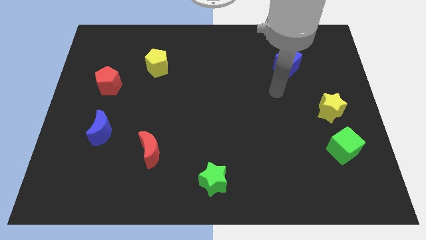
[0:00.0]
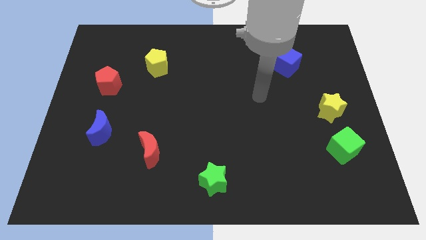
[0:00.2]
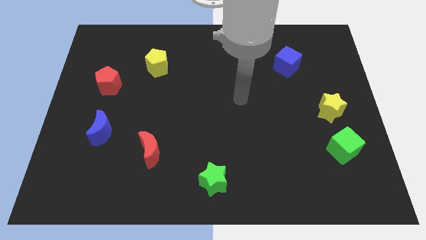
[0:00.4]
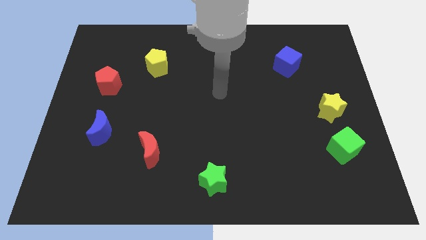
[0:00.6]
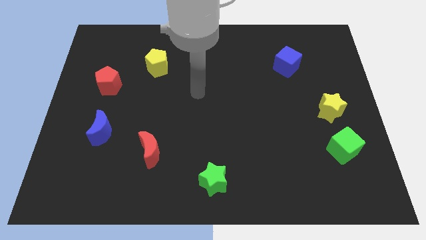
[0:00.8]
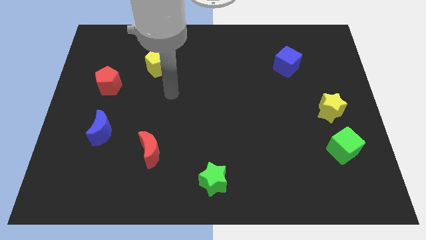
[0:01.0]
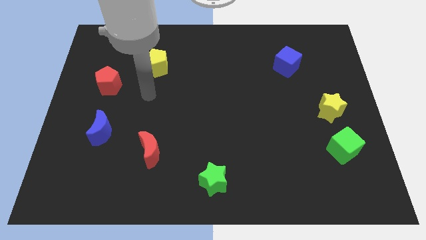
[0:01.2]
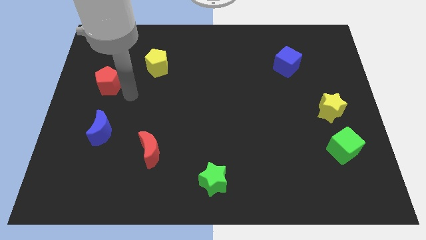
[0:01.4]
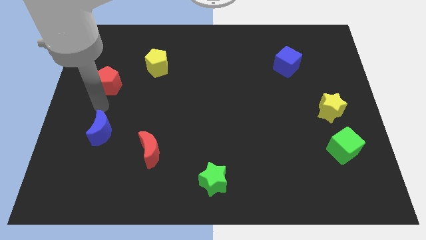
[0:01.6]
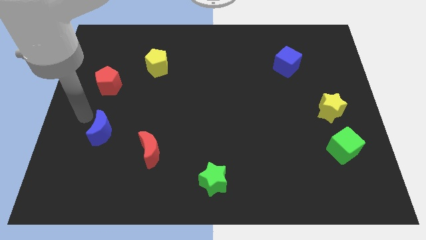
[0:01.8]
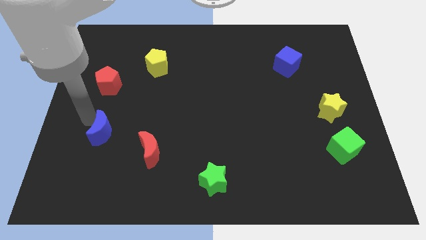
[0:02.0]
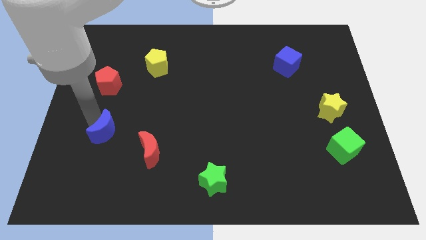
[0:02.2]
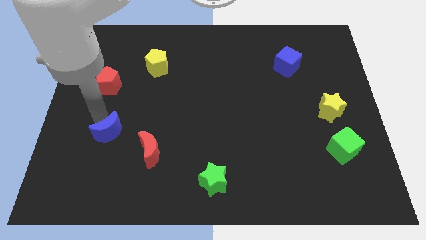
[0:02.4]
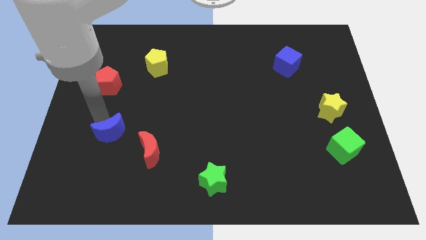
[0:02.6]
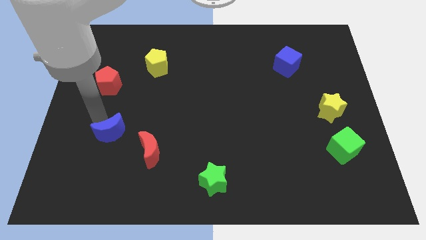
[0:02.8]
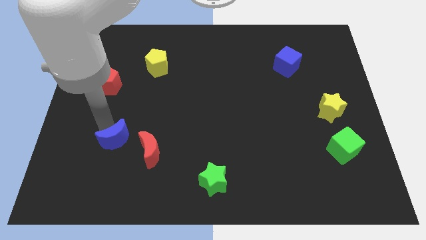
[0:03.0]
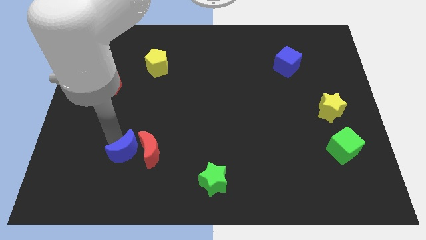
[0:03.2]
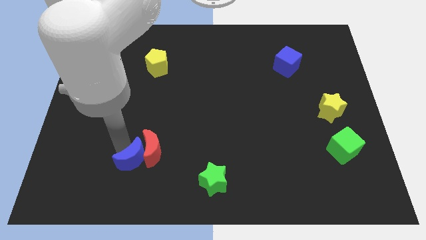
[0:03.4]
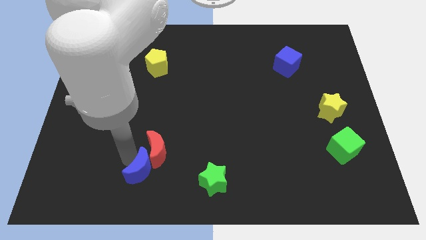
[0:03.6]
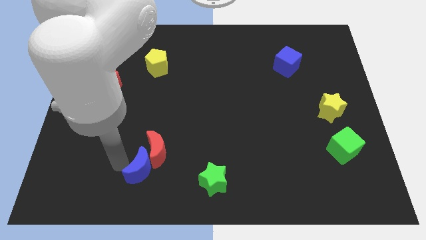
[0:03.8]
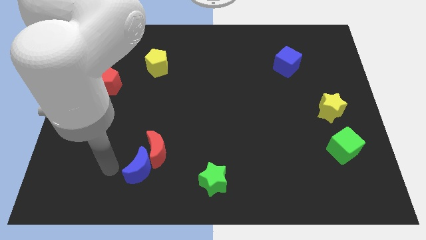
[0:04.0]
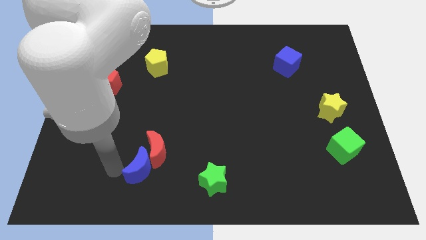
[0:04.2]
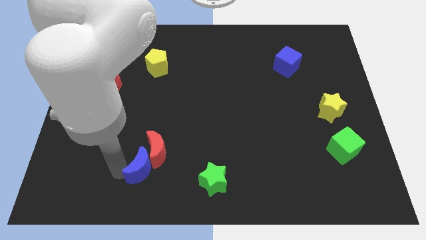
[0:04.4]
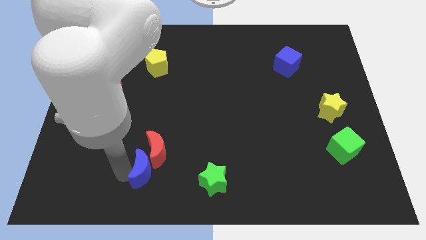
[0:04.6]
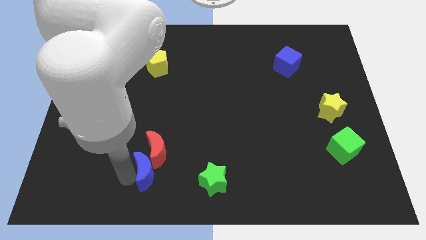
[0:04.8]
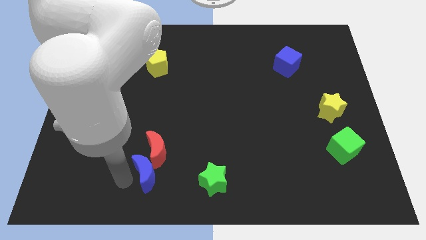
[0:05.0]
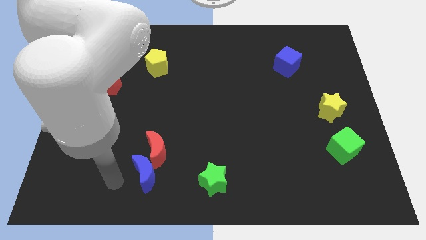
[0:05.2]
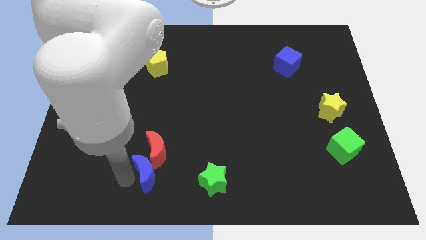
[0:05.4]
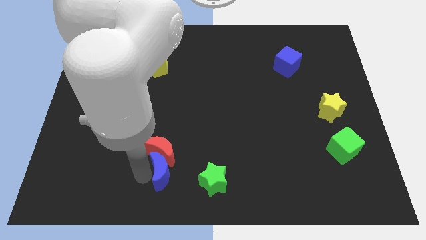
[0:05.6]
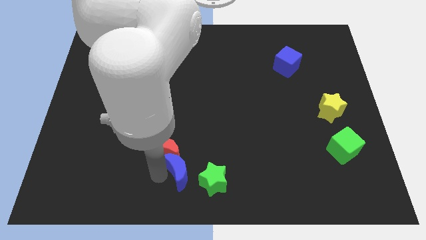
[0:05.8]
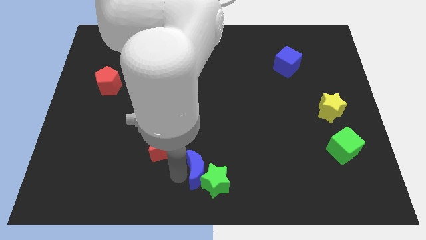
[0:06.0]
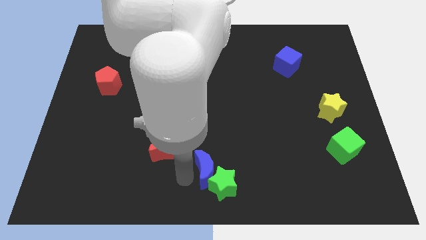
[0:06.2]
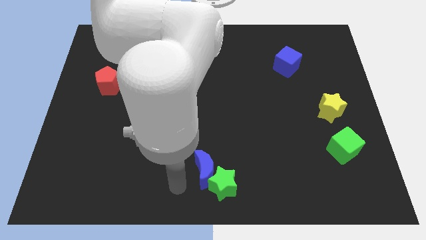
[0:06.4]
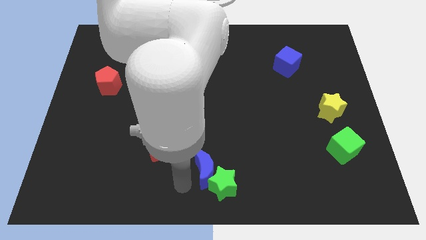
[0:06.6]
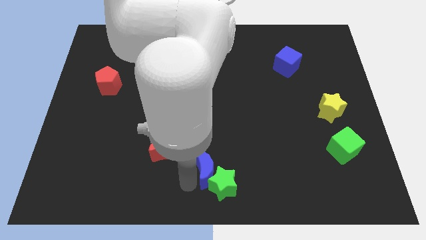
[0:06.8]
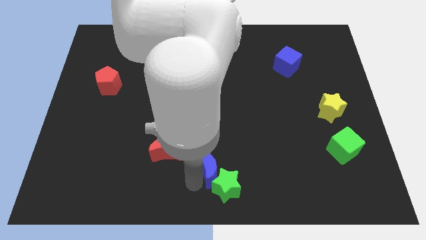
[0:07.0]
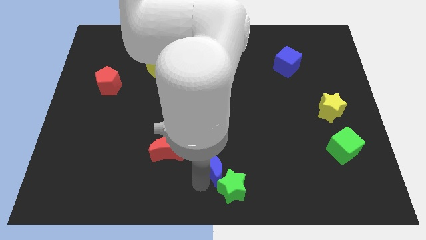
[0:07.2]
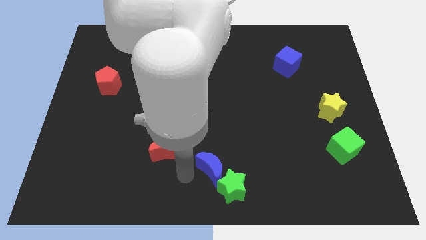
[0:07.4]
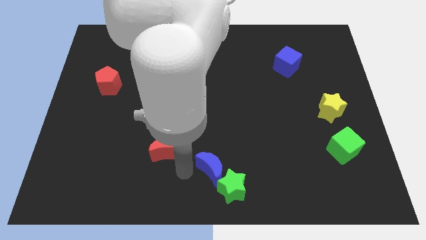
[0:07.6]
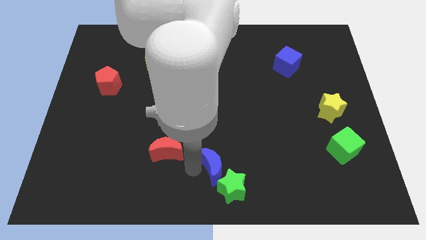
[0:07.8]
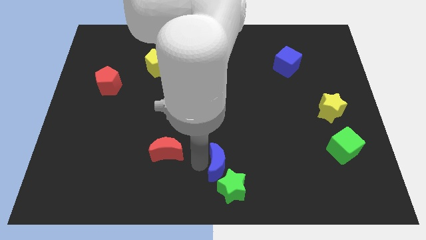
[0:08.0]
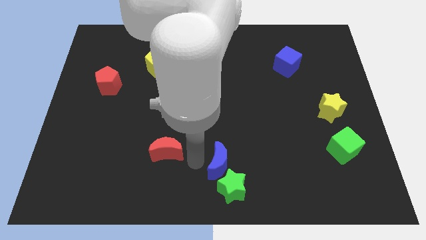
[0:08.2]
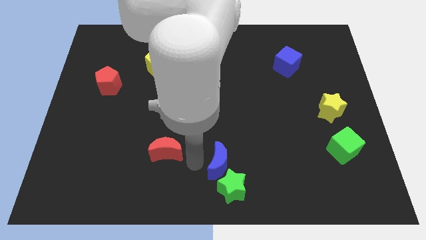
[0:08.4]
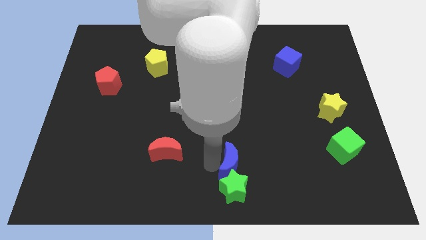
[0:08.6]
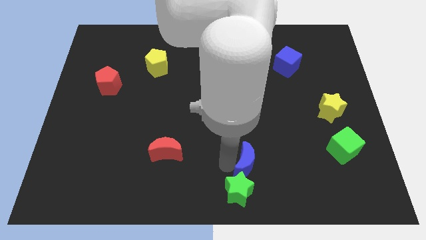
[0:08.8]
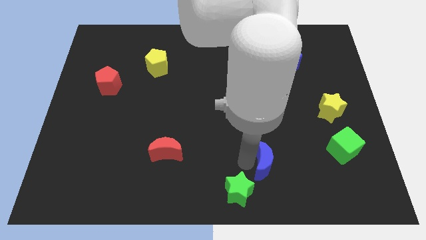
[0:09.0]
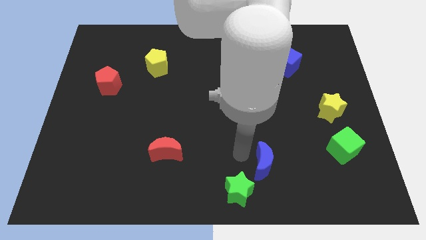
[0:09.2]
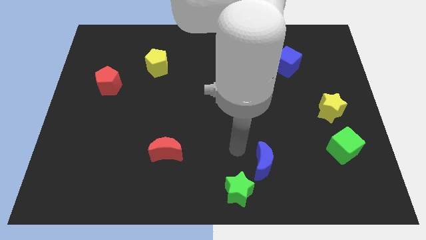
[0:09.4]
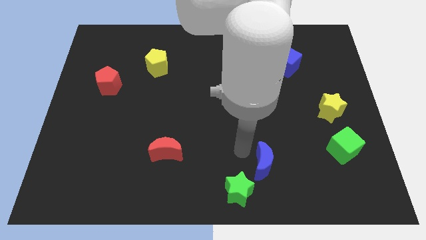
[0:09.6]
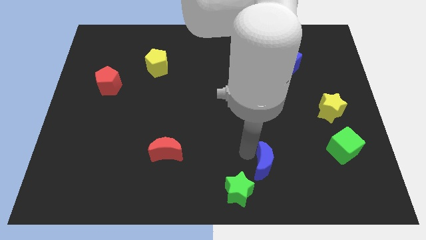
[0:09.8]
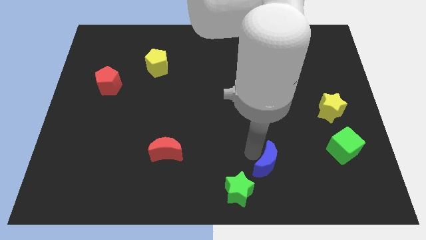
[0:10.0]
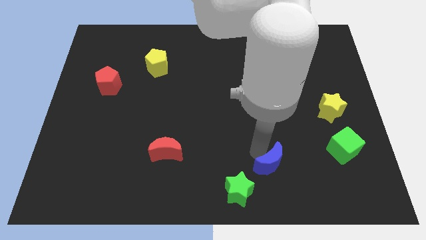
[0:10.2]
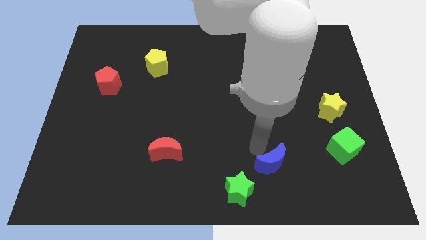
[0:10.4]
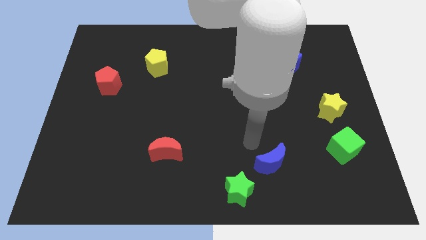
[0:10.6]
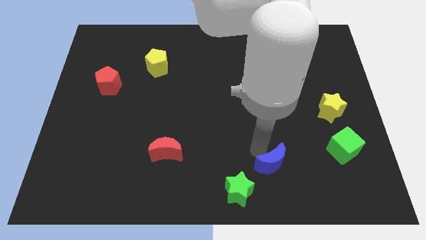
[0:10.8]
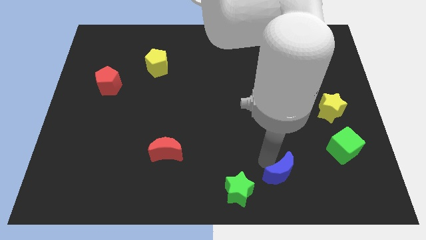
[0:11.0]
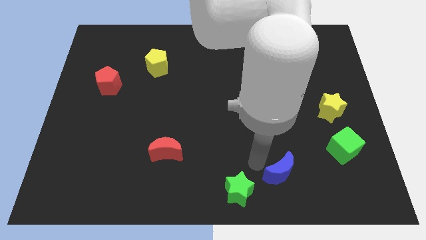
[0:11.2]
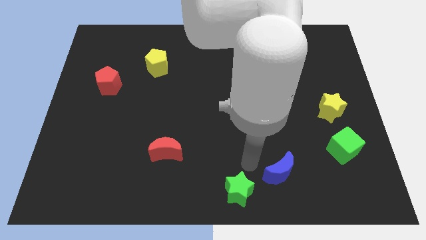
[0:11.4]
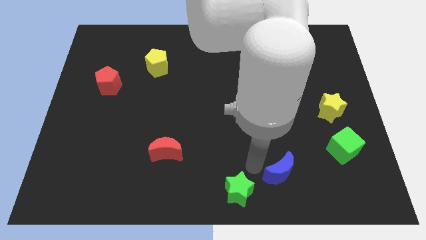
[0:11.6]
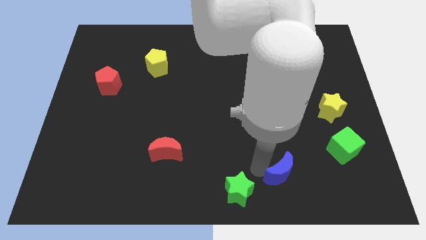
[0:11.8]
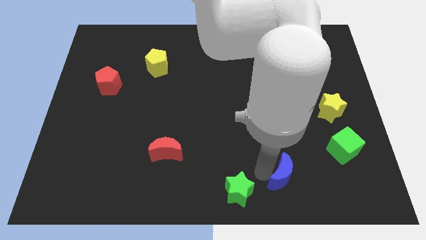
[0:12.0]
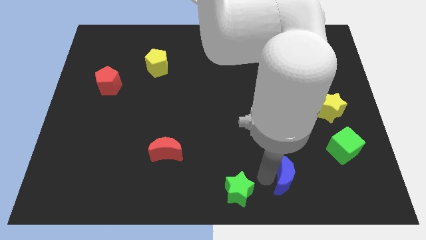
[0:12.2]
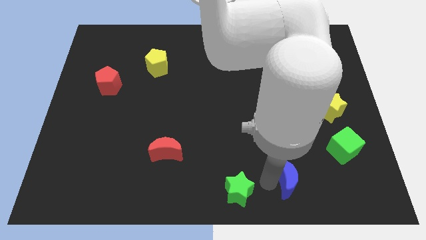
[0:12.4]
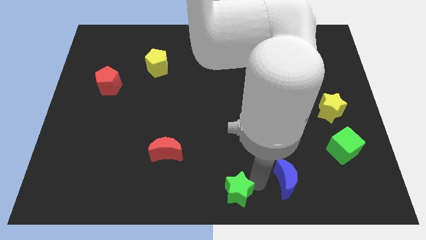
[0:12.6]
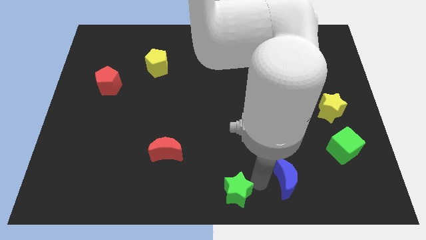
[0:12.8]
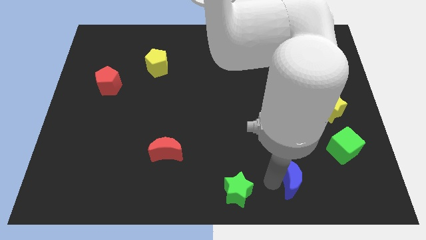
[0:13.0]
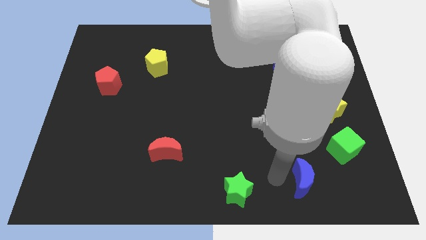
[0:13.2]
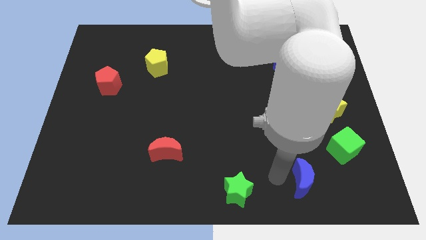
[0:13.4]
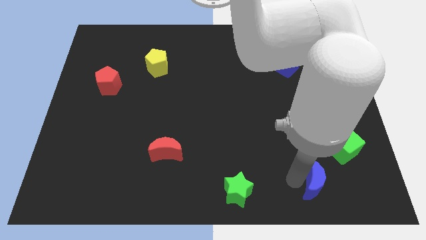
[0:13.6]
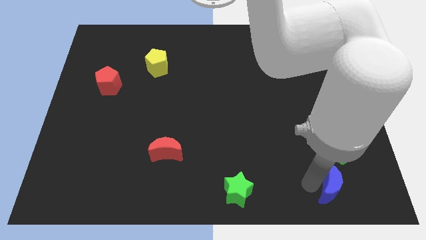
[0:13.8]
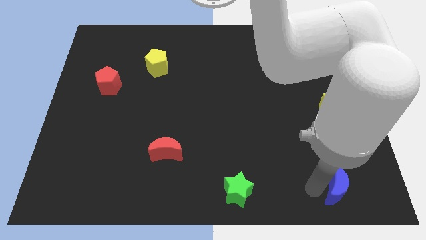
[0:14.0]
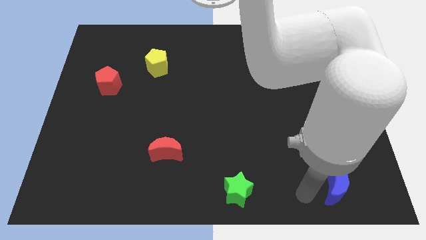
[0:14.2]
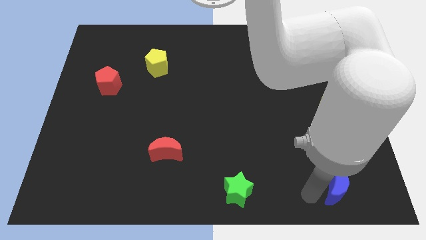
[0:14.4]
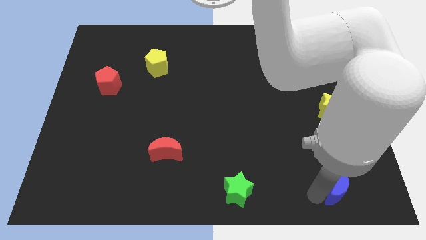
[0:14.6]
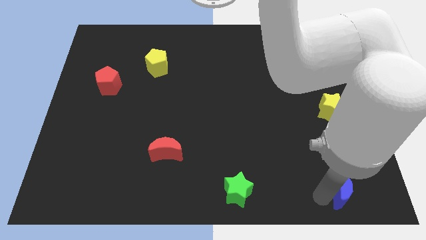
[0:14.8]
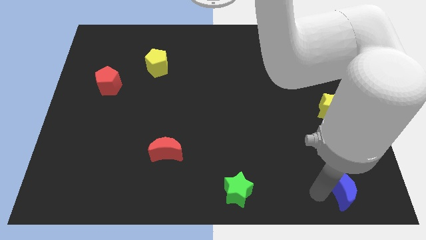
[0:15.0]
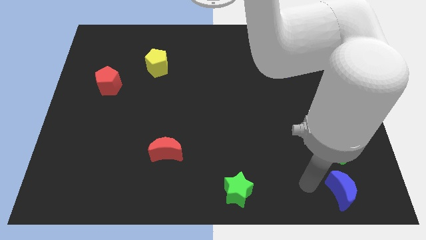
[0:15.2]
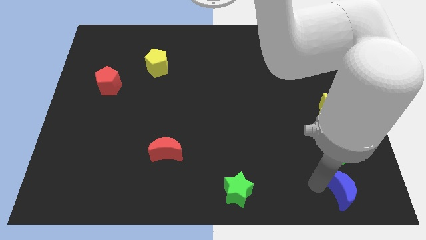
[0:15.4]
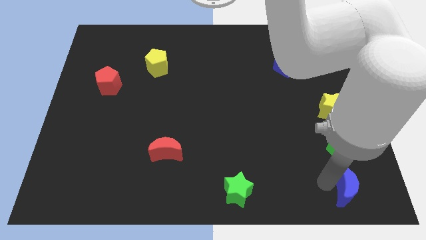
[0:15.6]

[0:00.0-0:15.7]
put the blue moon to the bottom right
